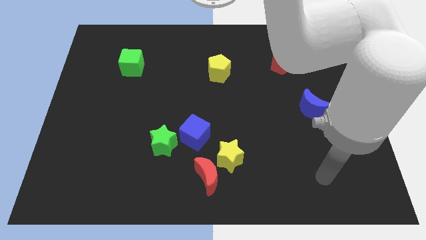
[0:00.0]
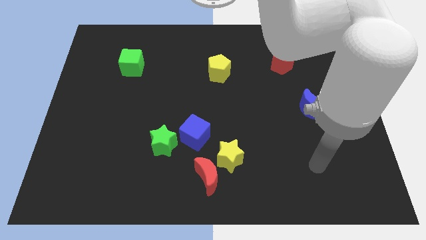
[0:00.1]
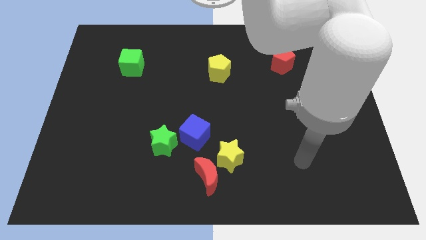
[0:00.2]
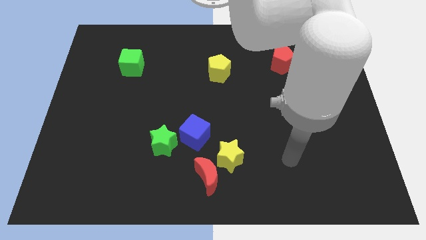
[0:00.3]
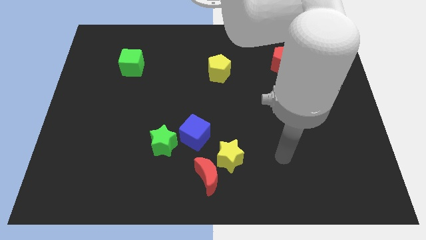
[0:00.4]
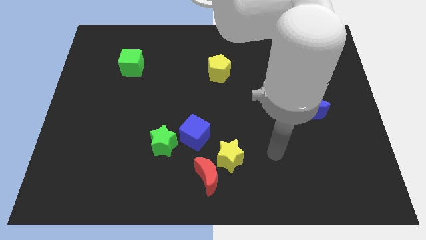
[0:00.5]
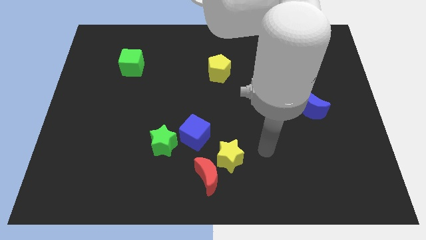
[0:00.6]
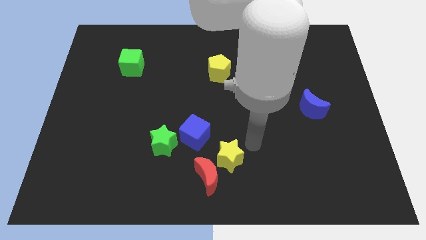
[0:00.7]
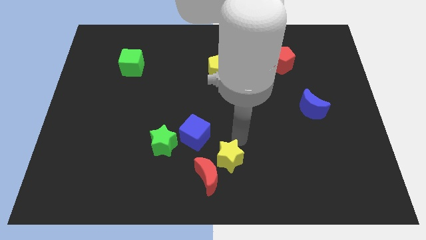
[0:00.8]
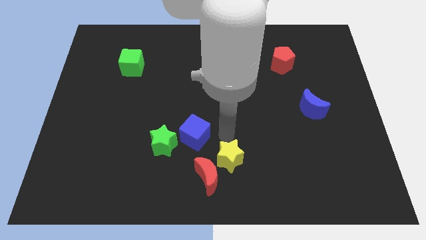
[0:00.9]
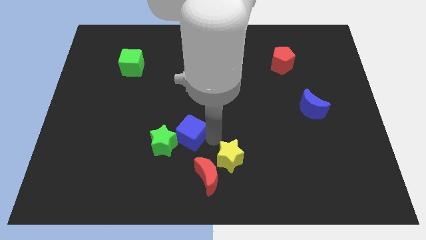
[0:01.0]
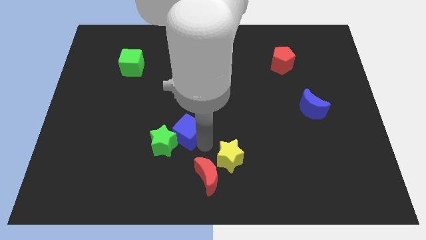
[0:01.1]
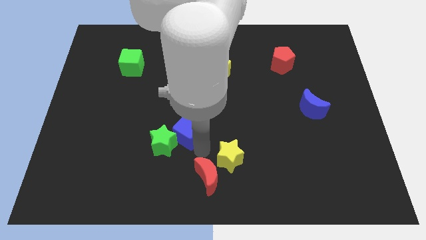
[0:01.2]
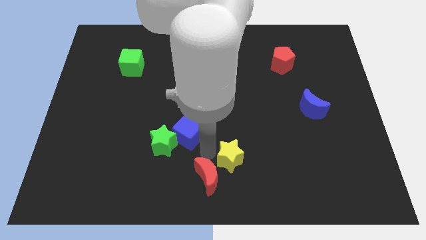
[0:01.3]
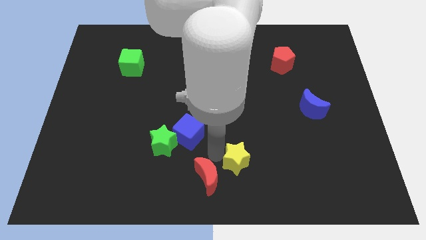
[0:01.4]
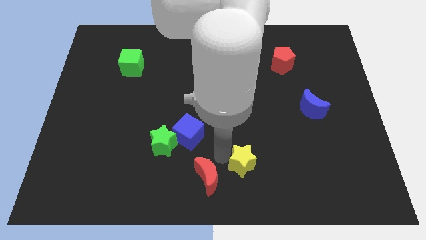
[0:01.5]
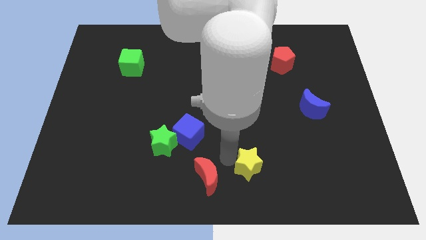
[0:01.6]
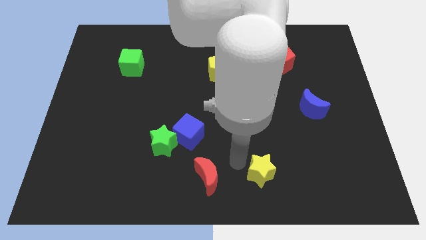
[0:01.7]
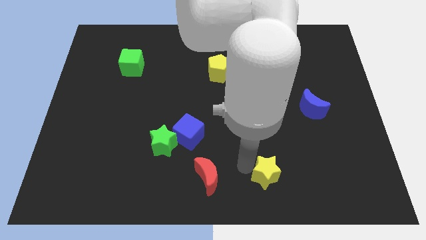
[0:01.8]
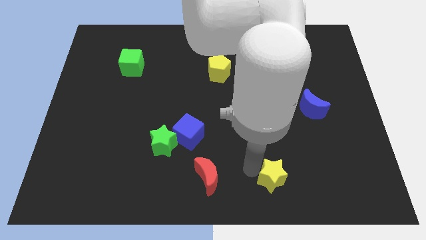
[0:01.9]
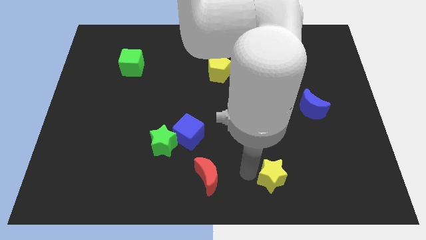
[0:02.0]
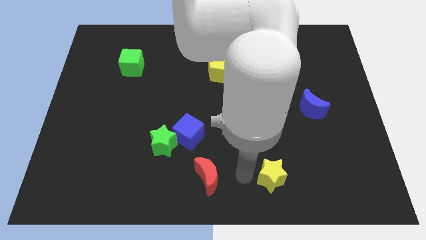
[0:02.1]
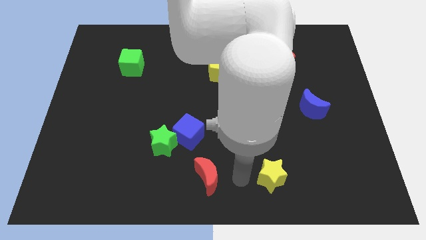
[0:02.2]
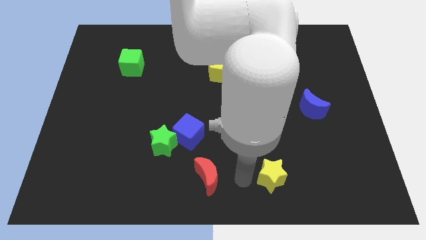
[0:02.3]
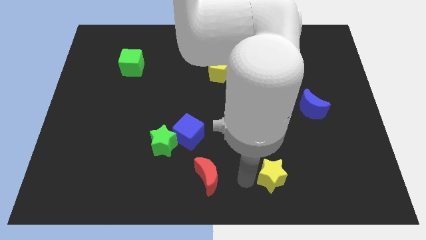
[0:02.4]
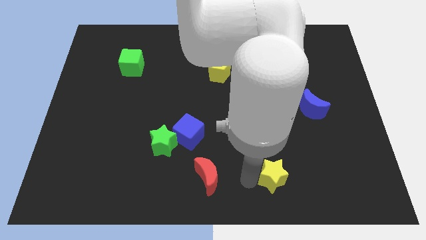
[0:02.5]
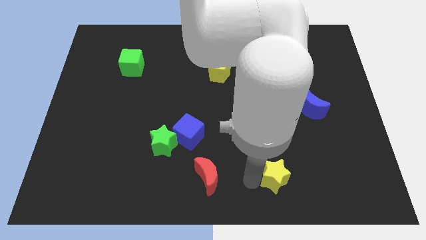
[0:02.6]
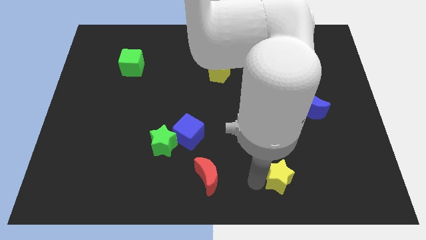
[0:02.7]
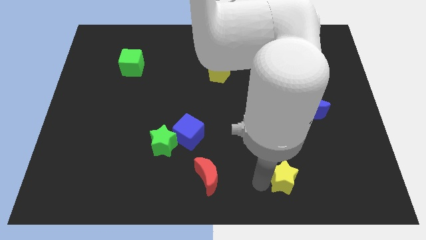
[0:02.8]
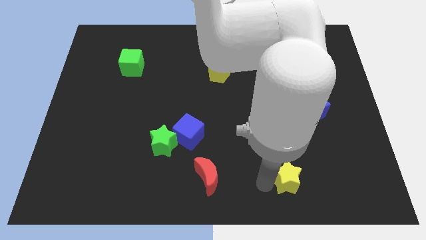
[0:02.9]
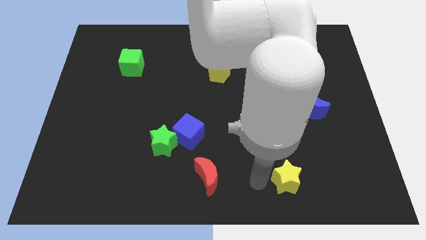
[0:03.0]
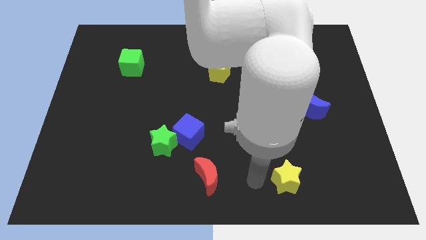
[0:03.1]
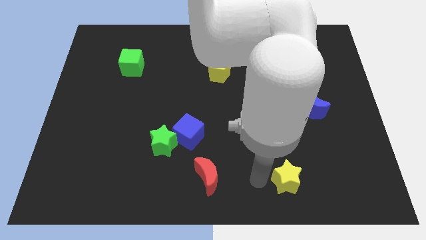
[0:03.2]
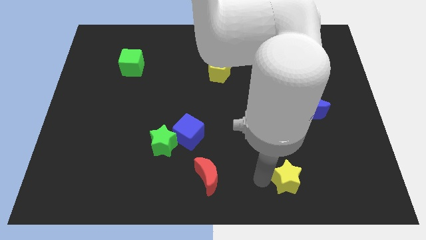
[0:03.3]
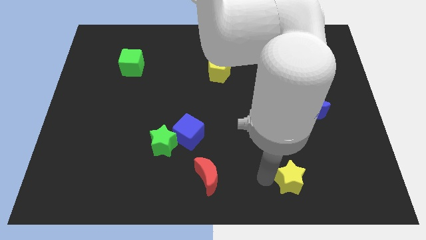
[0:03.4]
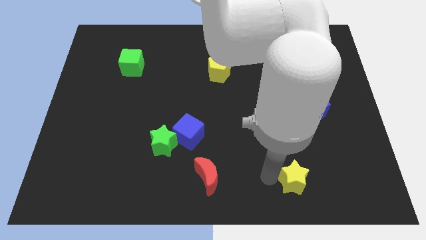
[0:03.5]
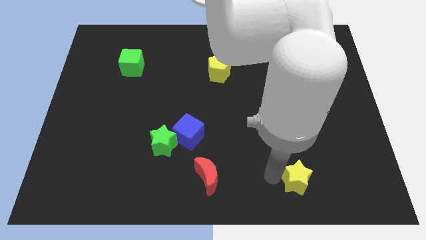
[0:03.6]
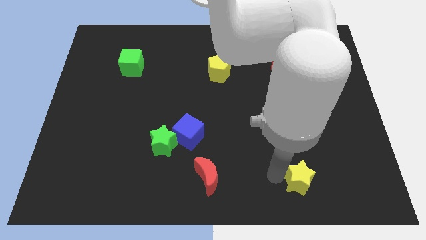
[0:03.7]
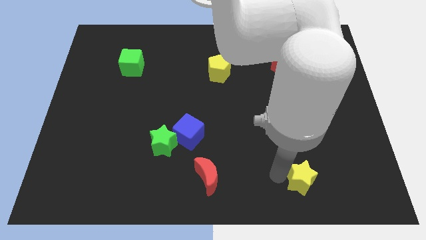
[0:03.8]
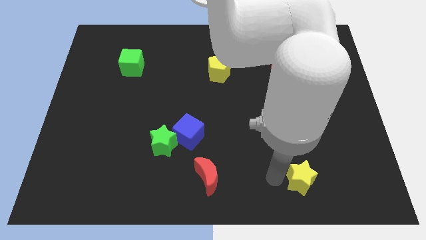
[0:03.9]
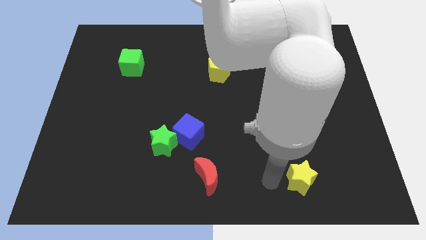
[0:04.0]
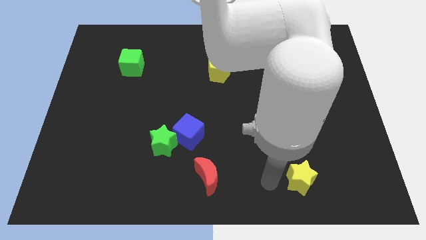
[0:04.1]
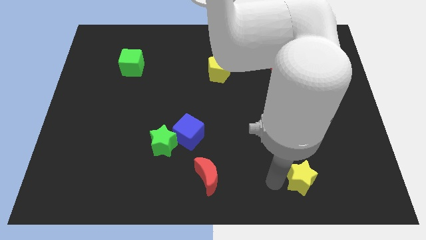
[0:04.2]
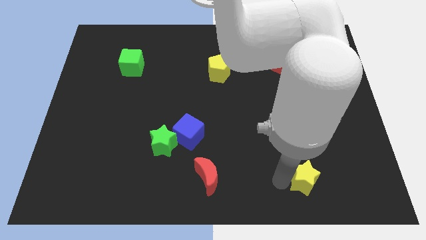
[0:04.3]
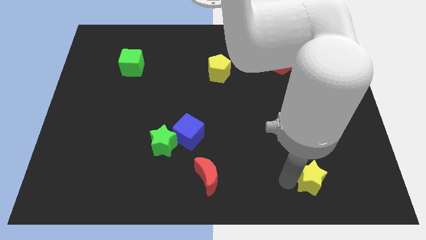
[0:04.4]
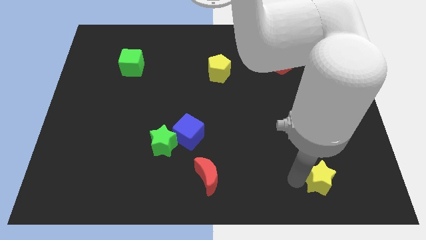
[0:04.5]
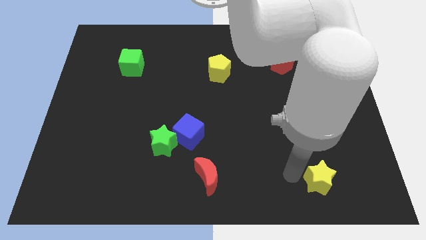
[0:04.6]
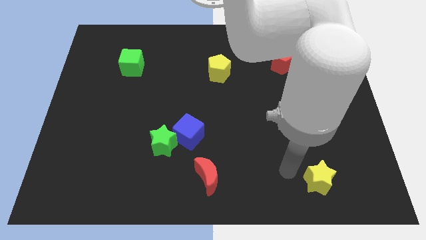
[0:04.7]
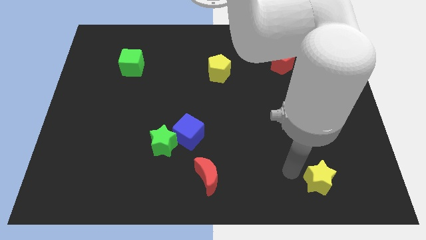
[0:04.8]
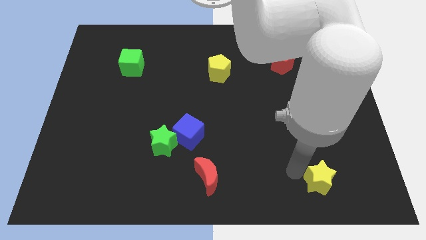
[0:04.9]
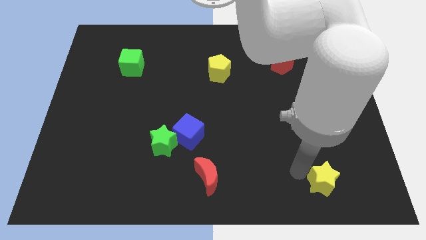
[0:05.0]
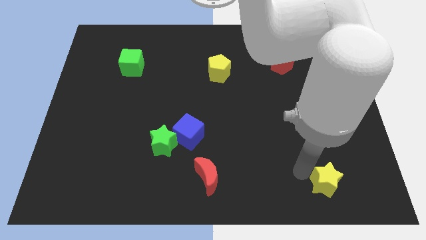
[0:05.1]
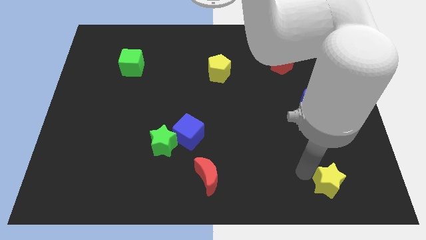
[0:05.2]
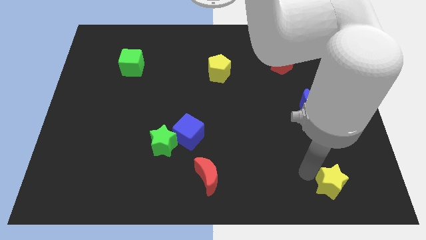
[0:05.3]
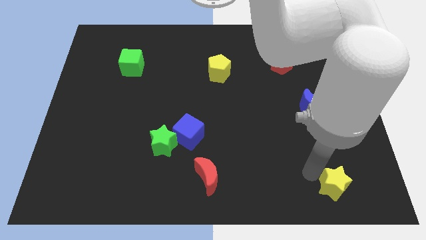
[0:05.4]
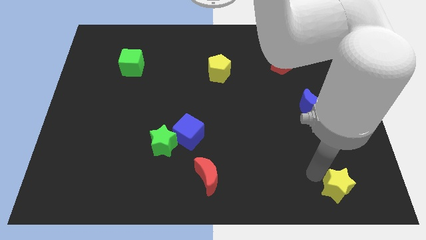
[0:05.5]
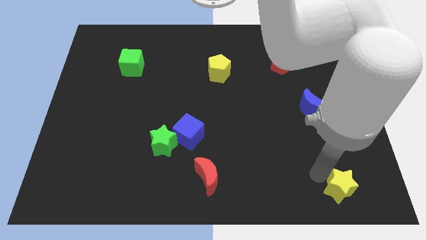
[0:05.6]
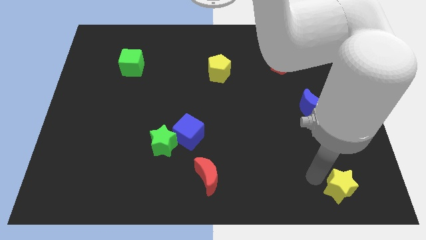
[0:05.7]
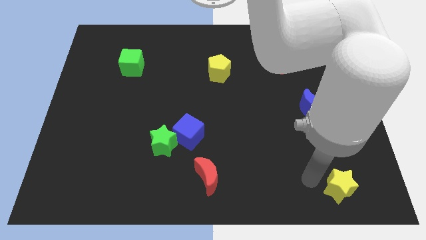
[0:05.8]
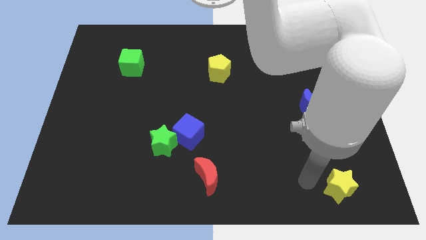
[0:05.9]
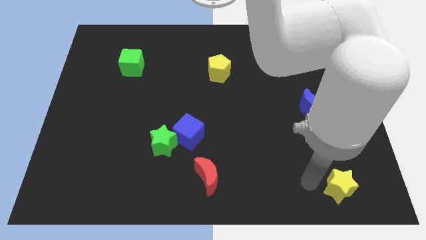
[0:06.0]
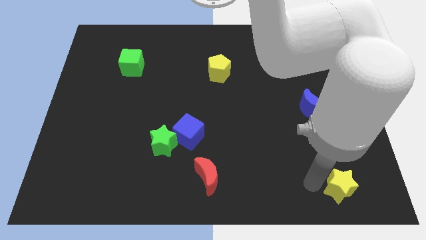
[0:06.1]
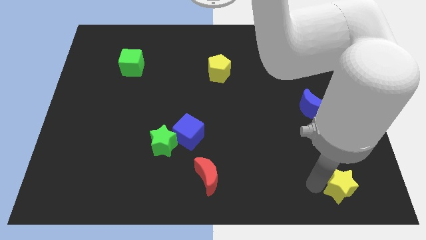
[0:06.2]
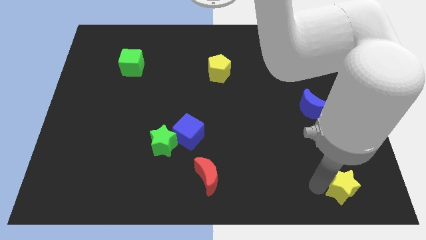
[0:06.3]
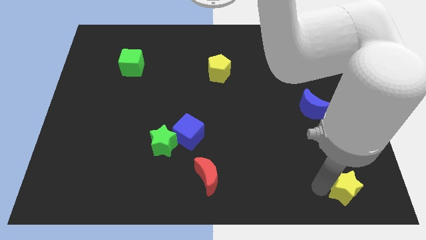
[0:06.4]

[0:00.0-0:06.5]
move the yellow star to the bottom right of the board
